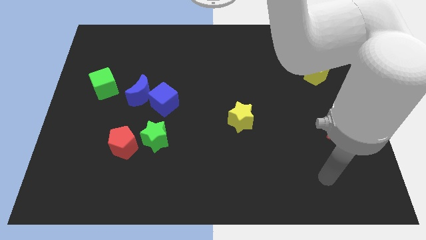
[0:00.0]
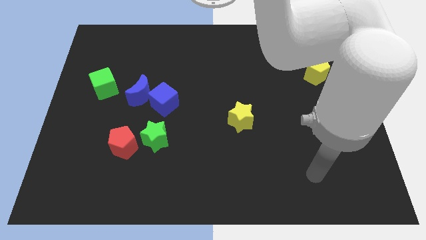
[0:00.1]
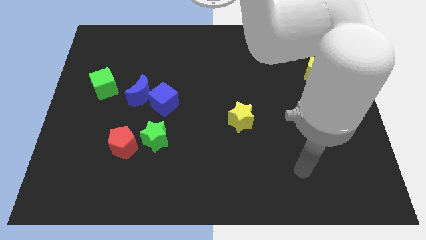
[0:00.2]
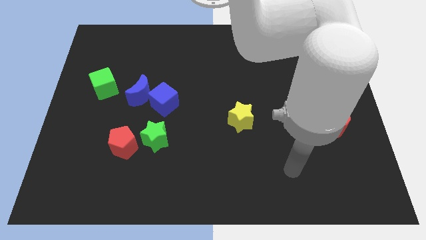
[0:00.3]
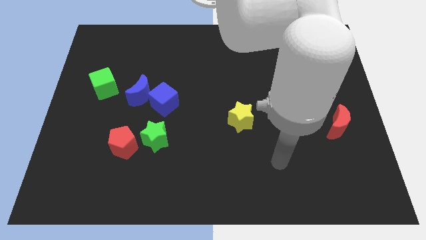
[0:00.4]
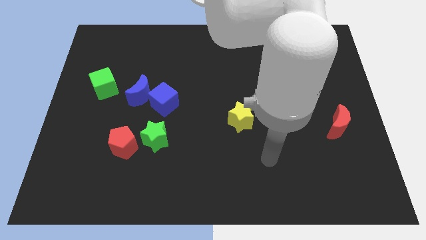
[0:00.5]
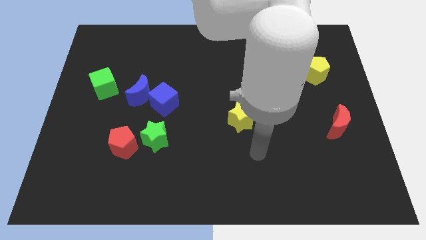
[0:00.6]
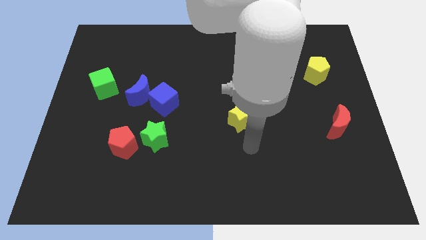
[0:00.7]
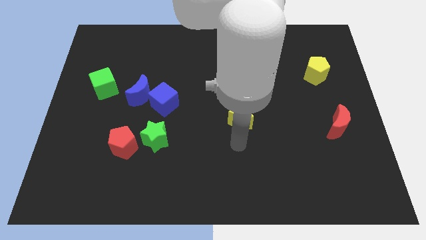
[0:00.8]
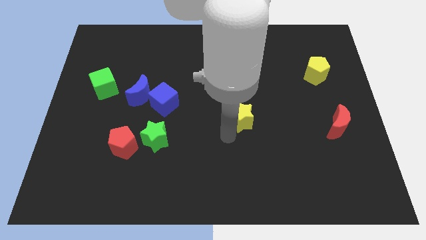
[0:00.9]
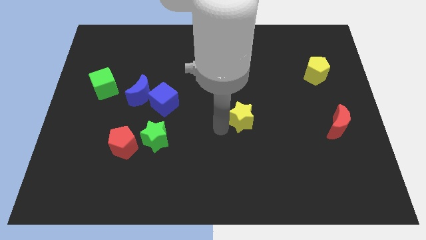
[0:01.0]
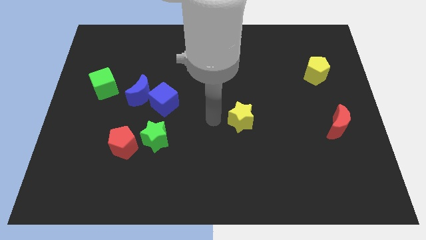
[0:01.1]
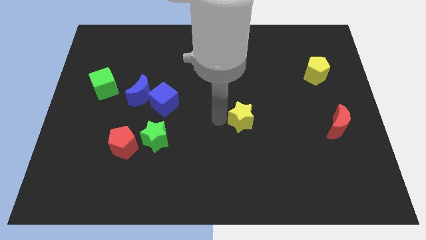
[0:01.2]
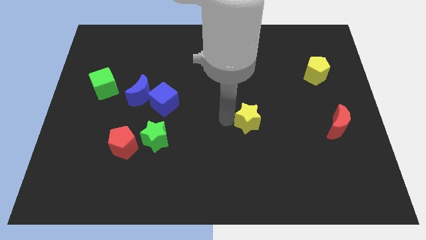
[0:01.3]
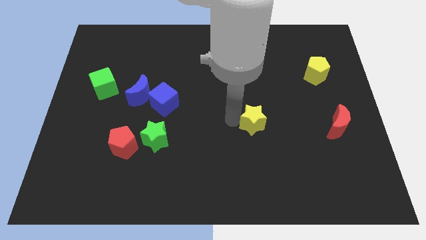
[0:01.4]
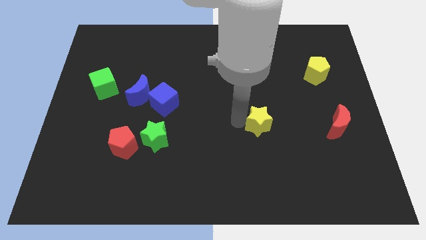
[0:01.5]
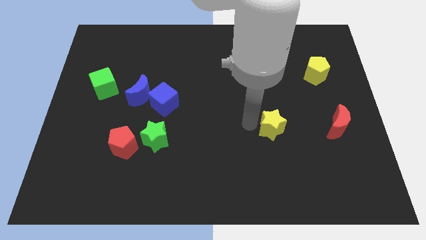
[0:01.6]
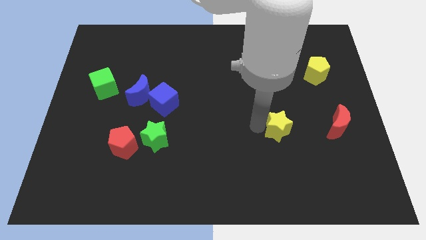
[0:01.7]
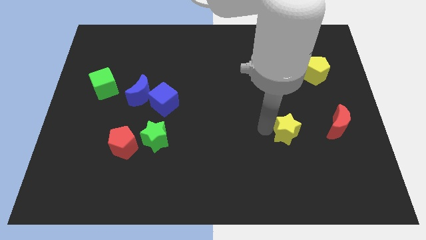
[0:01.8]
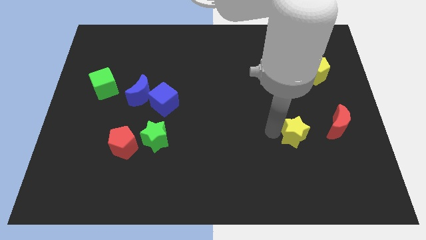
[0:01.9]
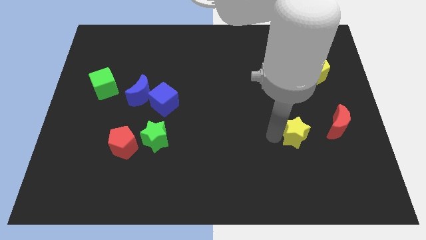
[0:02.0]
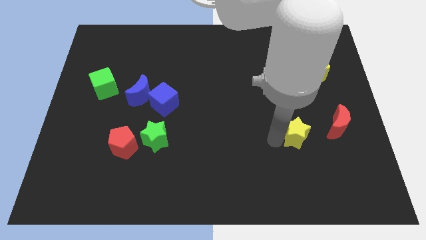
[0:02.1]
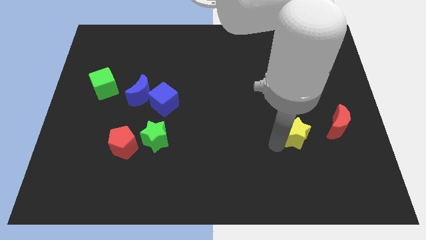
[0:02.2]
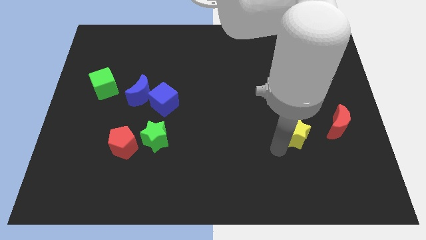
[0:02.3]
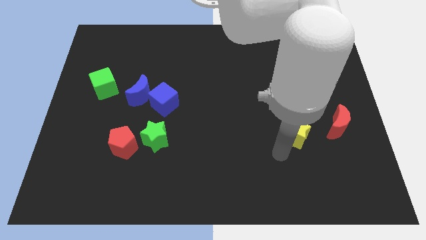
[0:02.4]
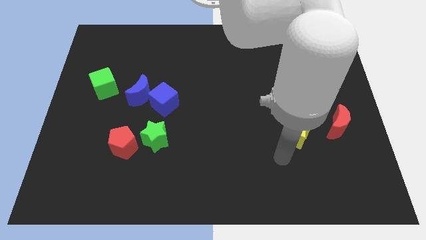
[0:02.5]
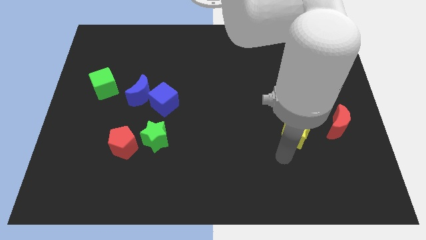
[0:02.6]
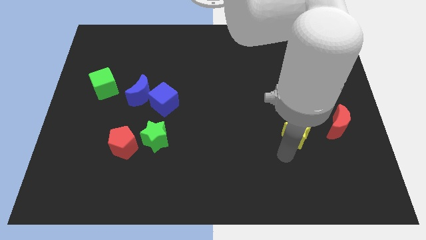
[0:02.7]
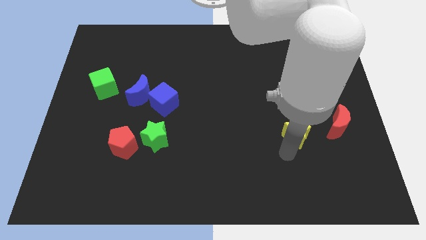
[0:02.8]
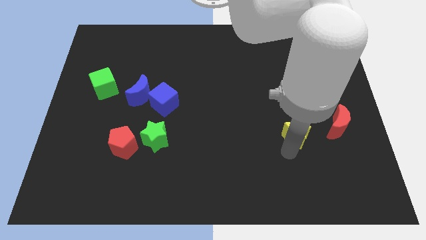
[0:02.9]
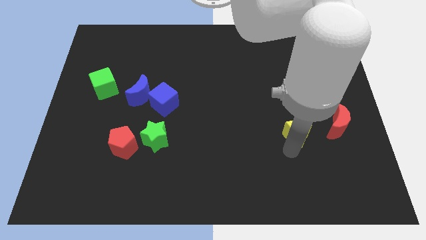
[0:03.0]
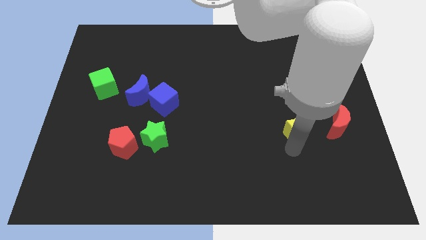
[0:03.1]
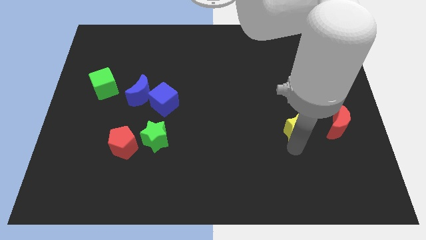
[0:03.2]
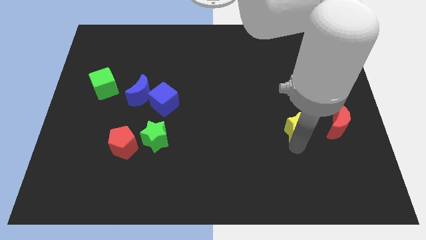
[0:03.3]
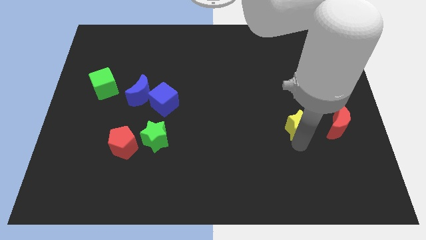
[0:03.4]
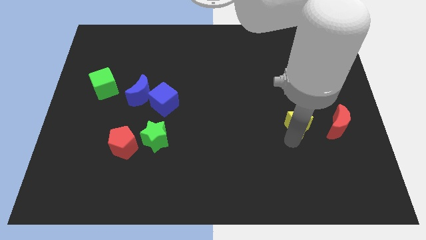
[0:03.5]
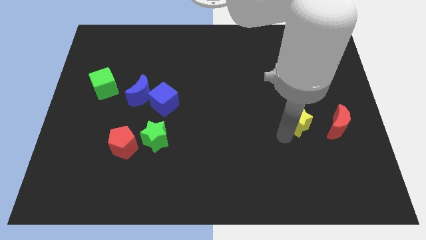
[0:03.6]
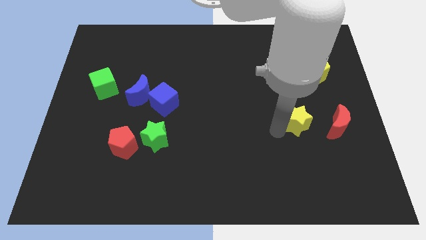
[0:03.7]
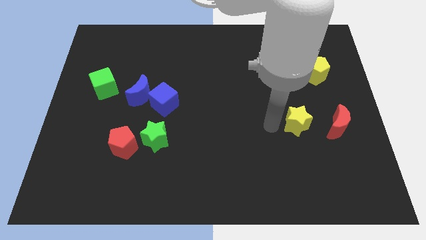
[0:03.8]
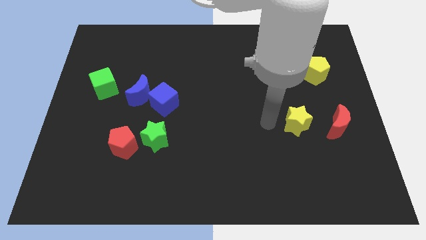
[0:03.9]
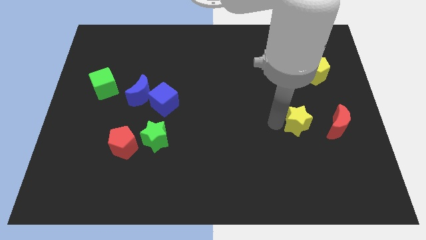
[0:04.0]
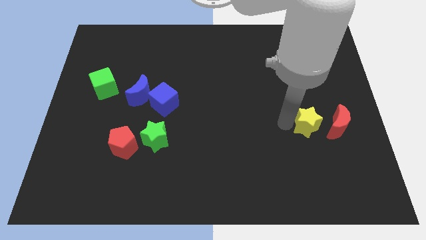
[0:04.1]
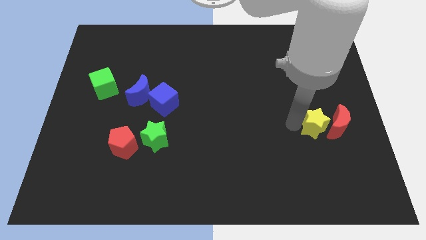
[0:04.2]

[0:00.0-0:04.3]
push the yellow star next to the red moon

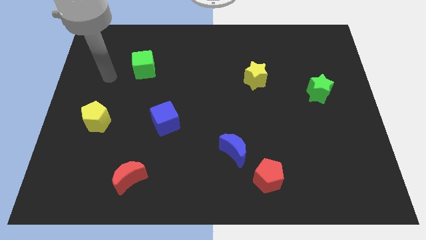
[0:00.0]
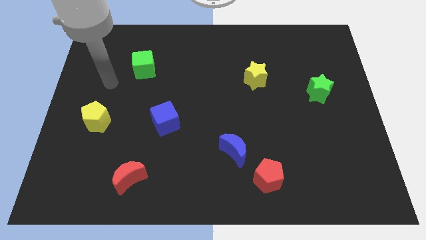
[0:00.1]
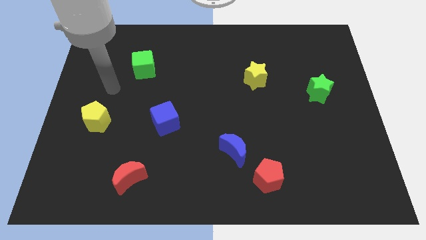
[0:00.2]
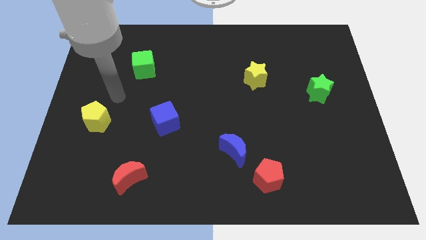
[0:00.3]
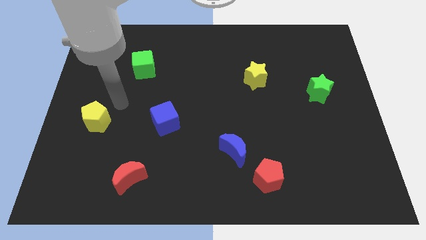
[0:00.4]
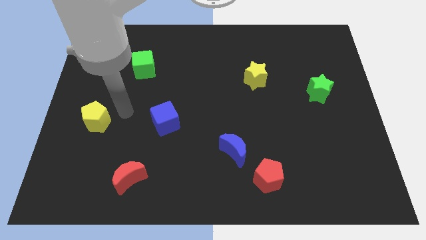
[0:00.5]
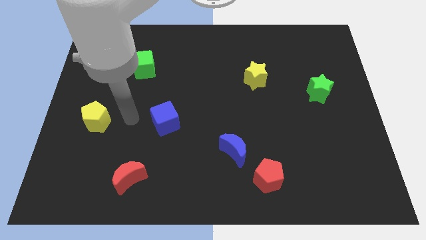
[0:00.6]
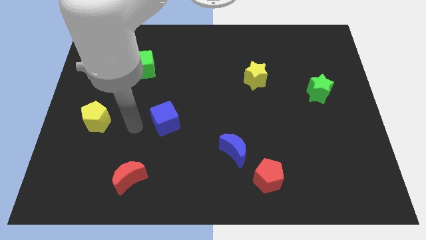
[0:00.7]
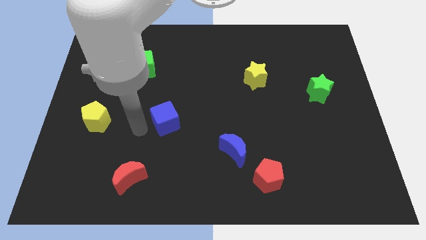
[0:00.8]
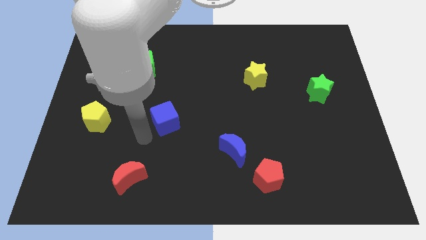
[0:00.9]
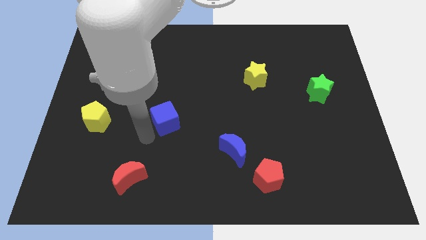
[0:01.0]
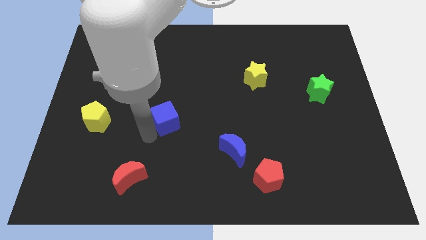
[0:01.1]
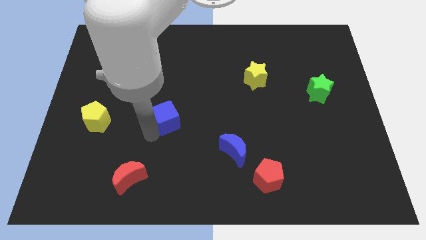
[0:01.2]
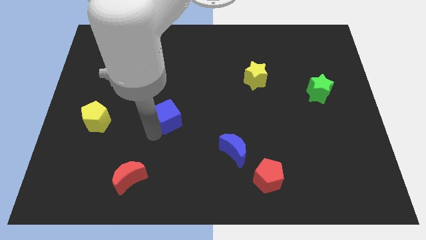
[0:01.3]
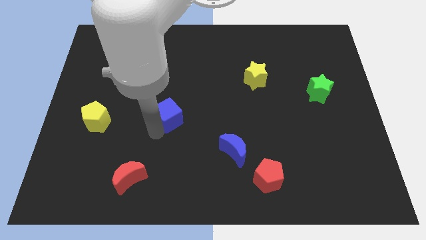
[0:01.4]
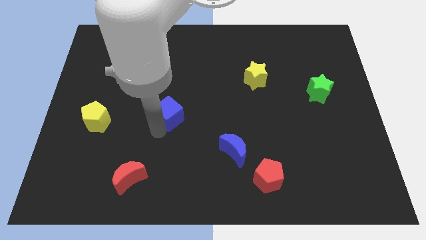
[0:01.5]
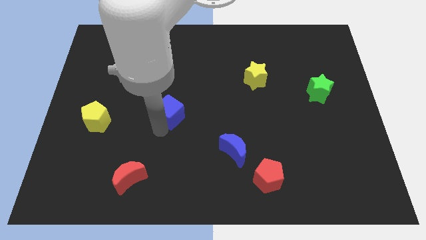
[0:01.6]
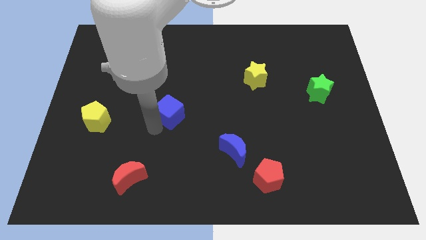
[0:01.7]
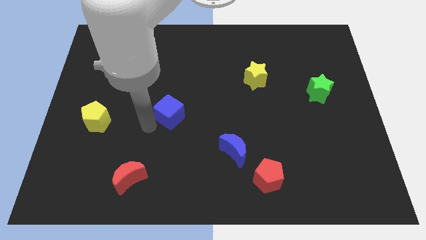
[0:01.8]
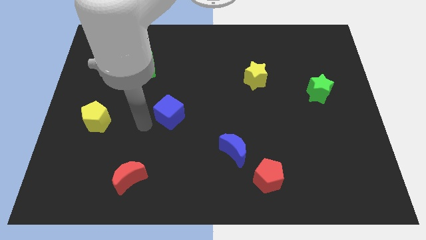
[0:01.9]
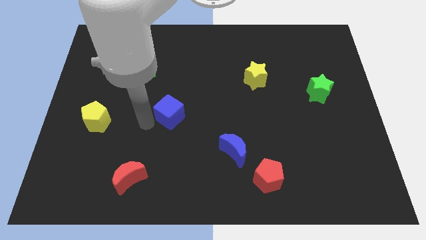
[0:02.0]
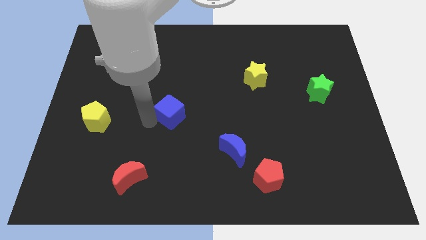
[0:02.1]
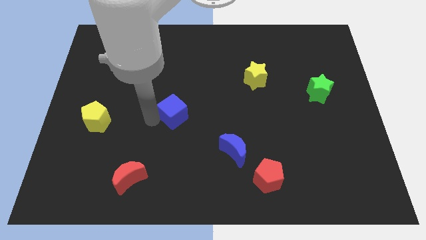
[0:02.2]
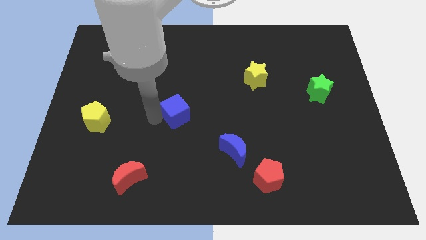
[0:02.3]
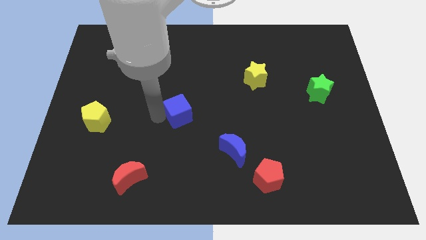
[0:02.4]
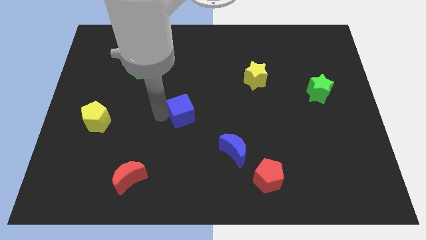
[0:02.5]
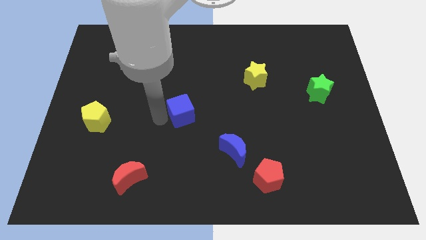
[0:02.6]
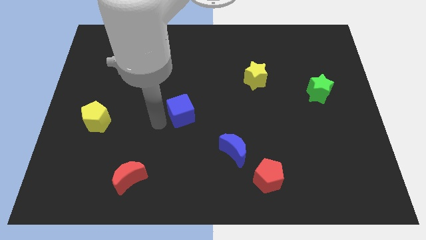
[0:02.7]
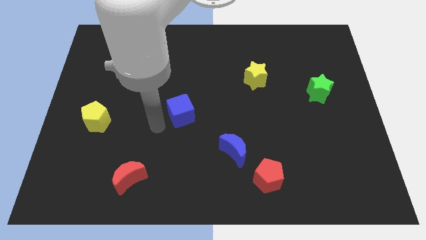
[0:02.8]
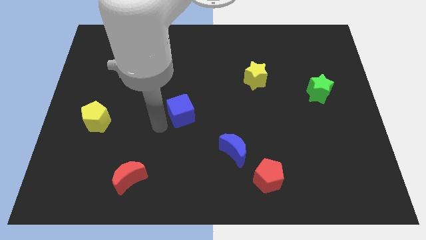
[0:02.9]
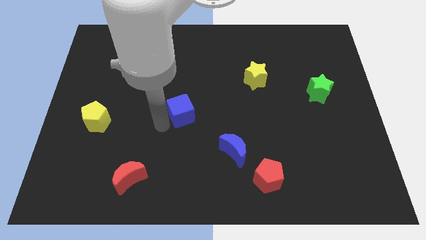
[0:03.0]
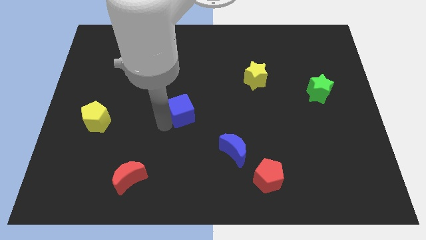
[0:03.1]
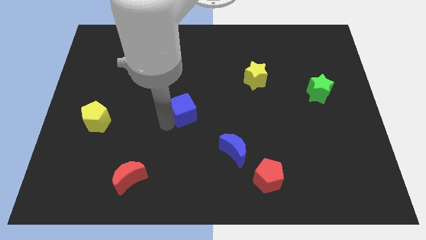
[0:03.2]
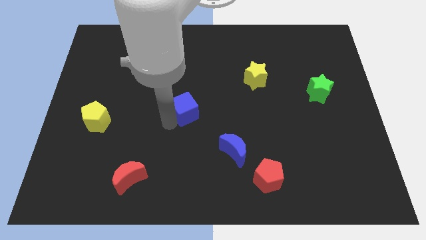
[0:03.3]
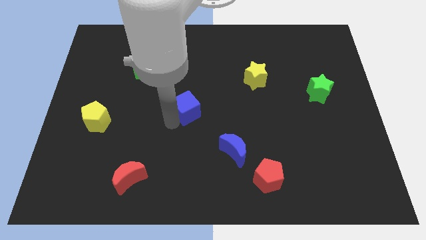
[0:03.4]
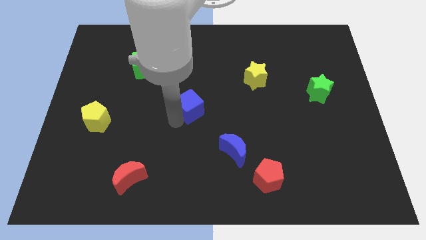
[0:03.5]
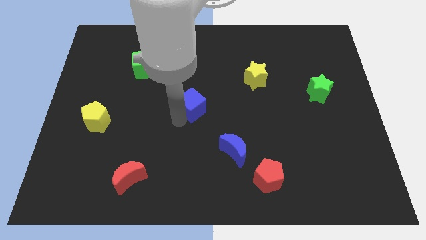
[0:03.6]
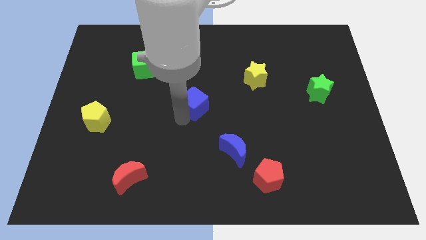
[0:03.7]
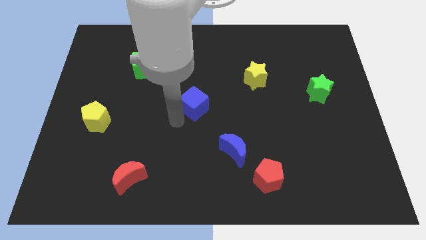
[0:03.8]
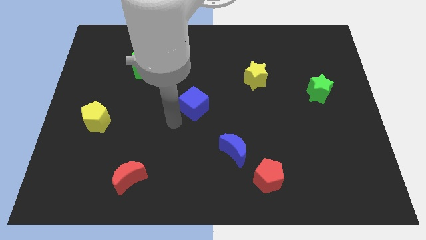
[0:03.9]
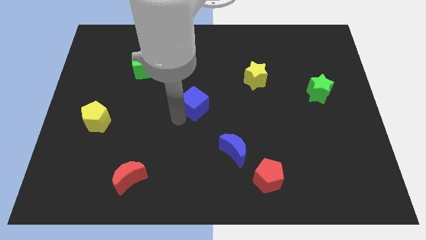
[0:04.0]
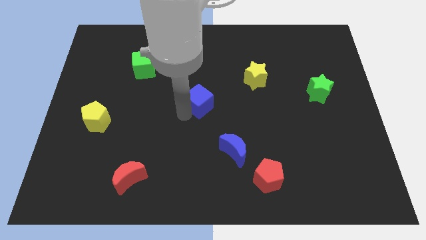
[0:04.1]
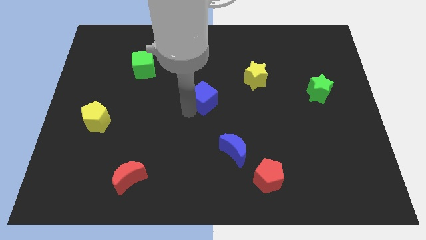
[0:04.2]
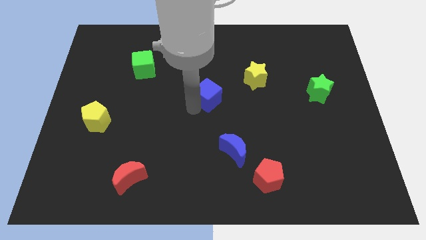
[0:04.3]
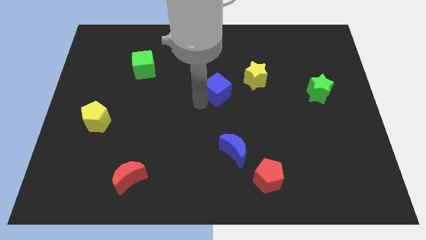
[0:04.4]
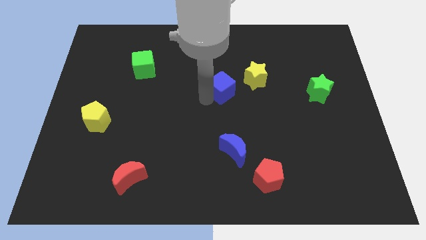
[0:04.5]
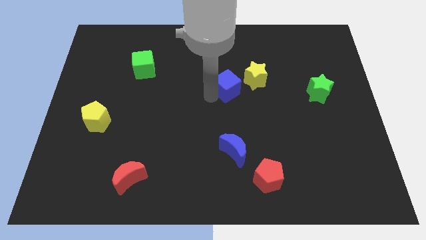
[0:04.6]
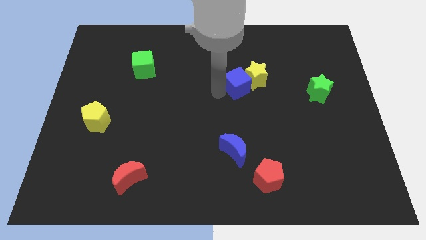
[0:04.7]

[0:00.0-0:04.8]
put the blue cube close to the yellow star
